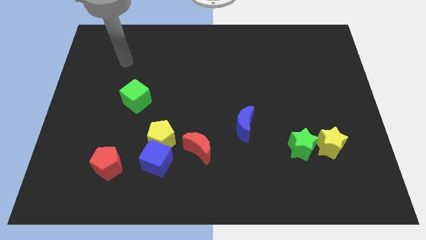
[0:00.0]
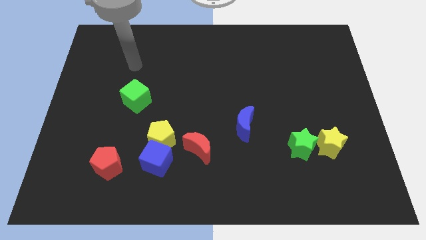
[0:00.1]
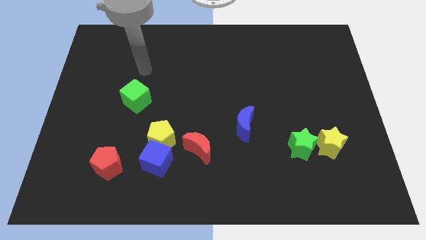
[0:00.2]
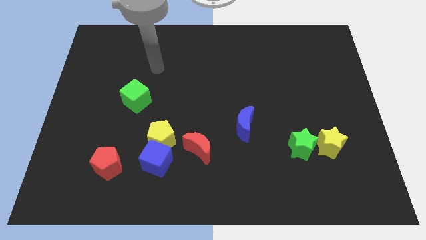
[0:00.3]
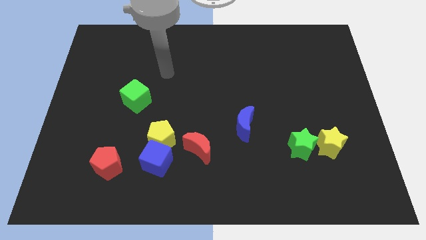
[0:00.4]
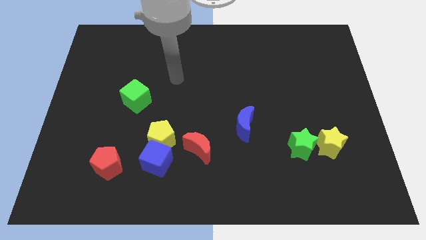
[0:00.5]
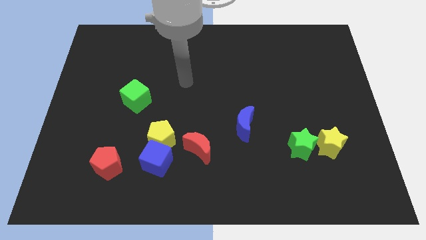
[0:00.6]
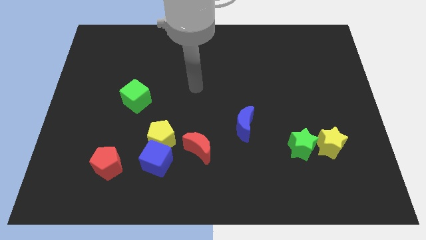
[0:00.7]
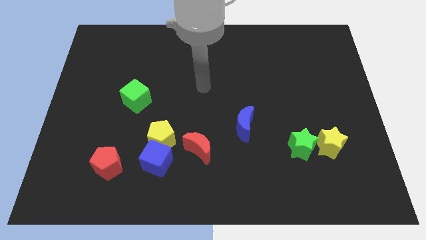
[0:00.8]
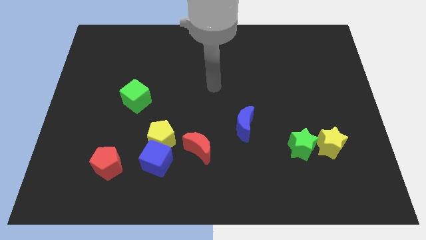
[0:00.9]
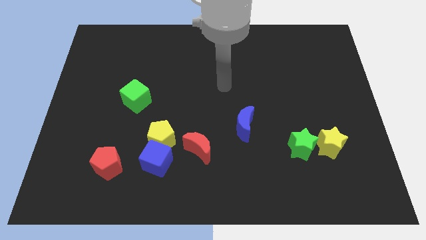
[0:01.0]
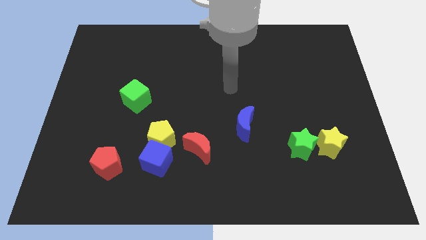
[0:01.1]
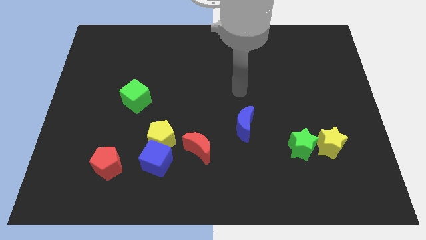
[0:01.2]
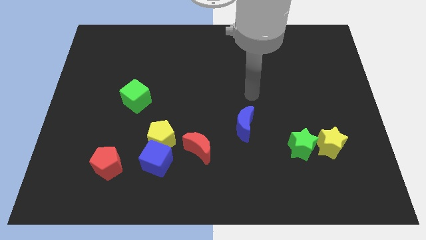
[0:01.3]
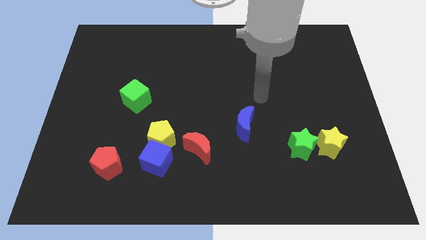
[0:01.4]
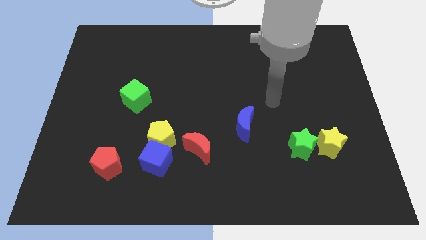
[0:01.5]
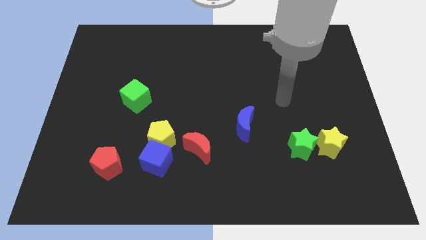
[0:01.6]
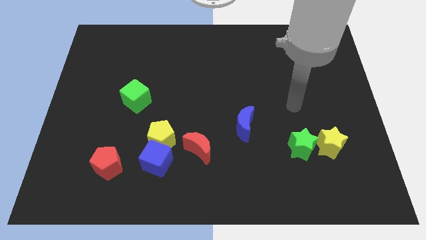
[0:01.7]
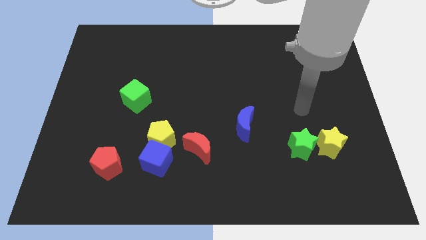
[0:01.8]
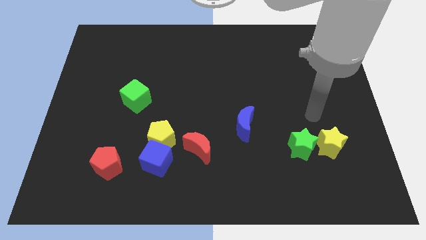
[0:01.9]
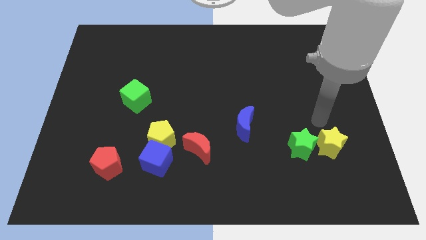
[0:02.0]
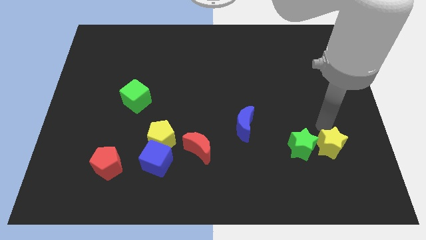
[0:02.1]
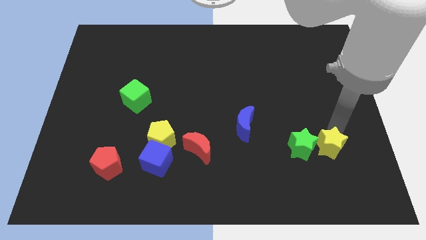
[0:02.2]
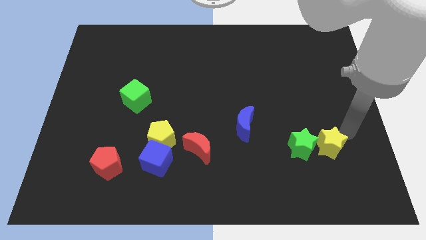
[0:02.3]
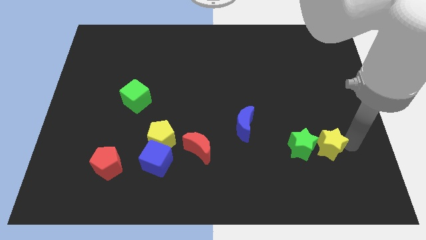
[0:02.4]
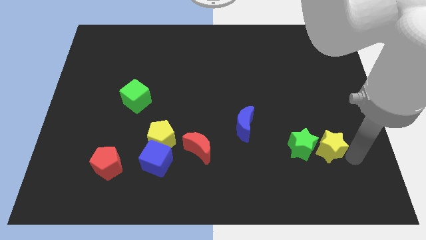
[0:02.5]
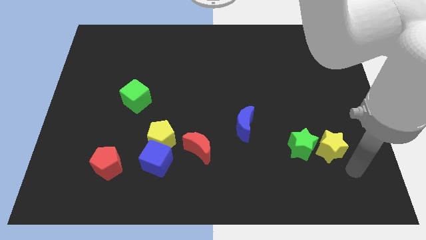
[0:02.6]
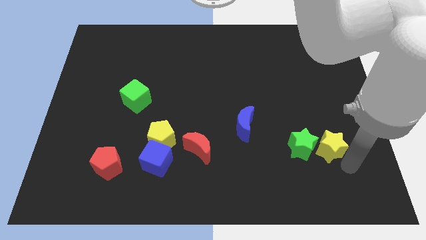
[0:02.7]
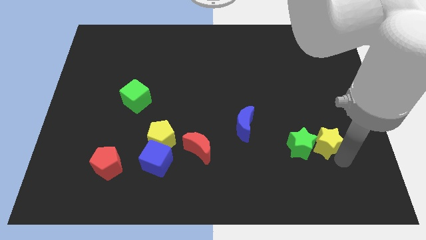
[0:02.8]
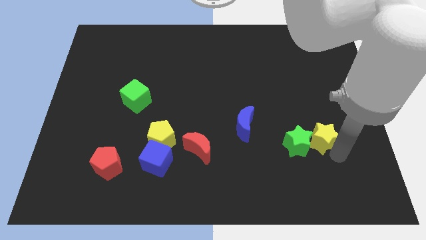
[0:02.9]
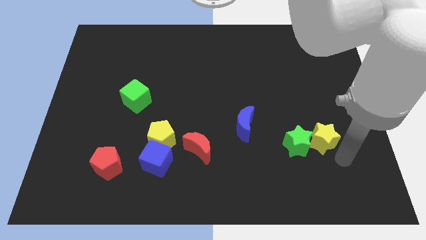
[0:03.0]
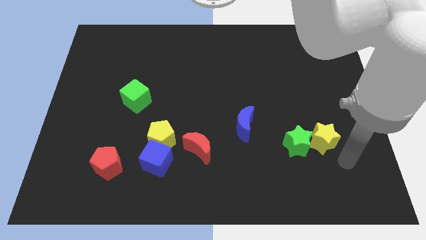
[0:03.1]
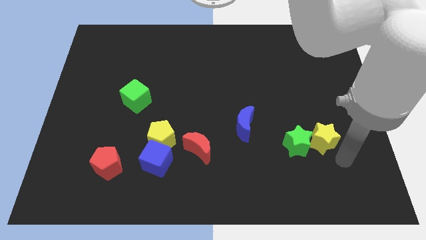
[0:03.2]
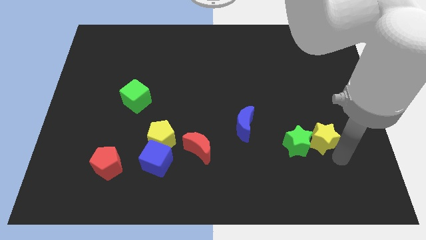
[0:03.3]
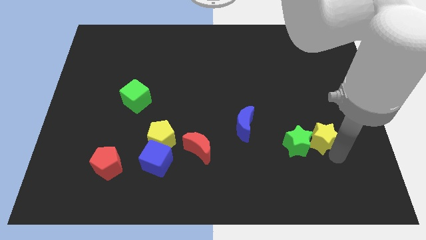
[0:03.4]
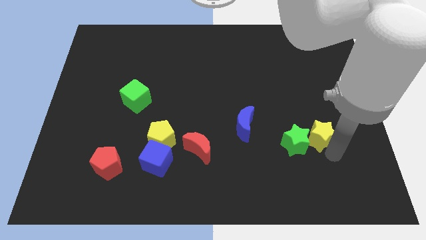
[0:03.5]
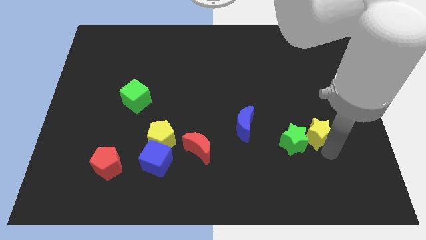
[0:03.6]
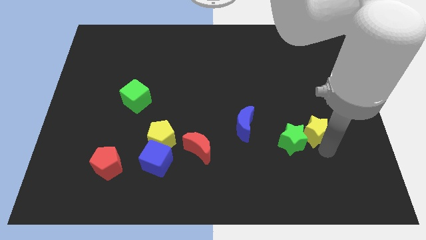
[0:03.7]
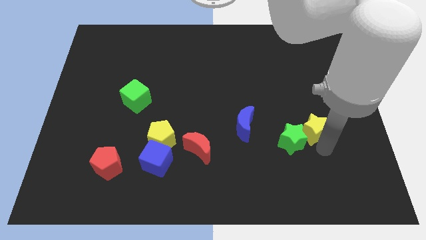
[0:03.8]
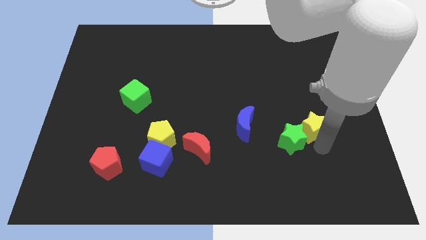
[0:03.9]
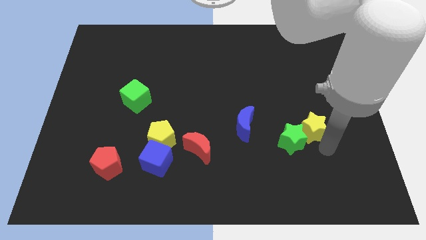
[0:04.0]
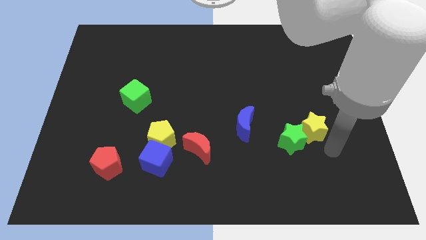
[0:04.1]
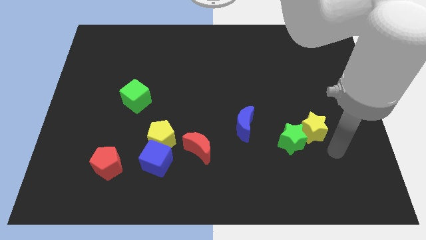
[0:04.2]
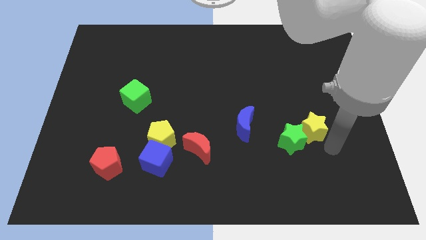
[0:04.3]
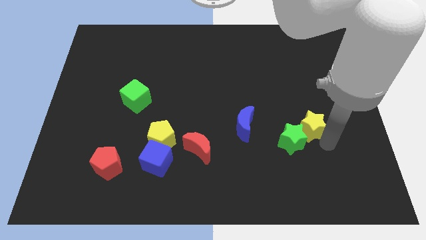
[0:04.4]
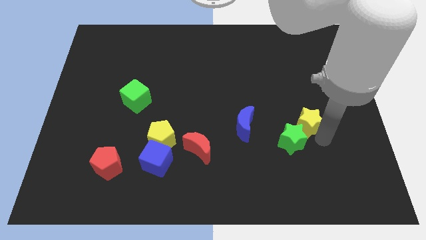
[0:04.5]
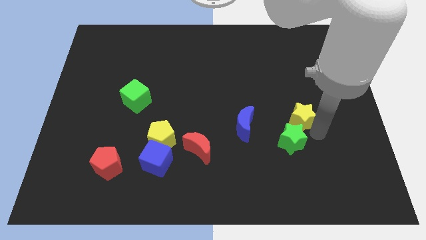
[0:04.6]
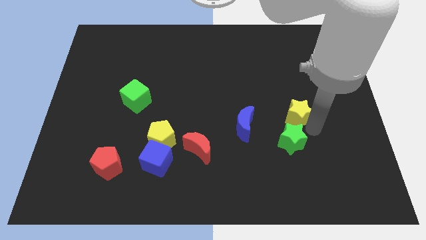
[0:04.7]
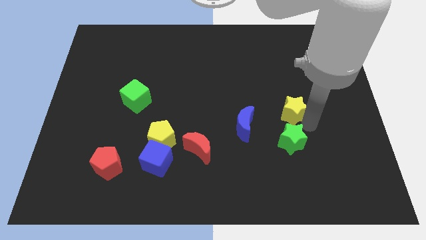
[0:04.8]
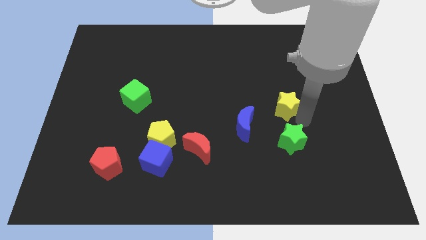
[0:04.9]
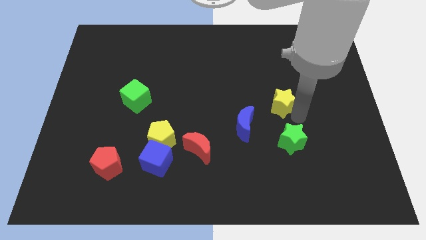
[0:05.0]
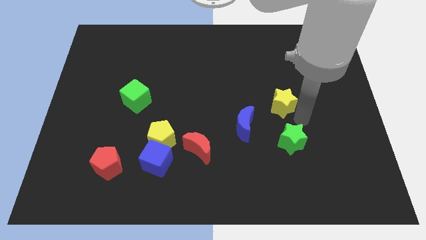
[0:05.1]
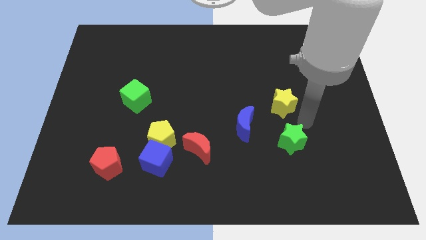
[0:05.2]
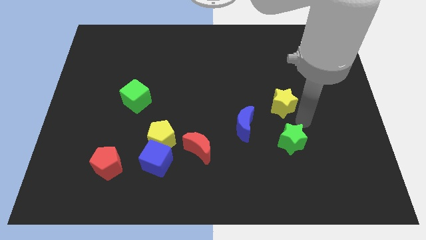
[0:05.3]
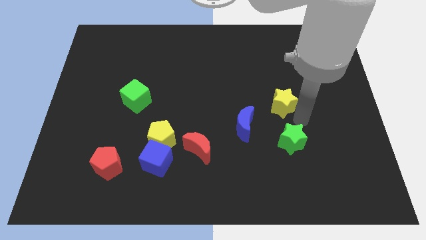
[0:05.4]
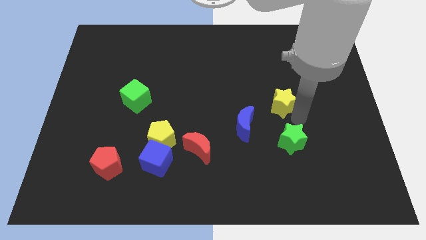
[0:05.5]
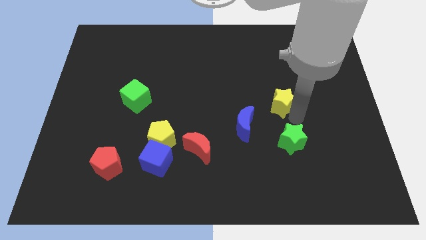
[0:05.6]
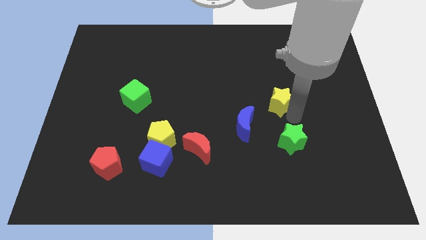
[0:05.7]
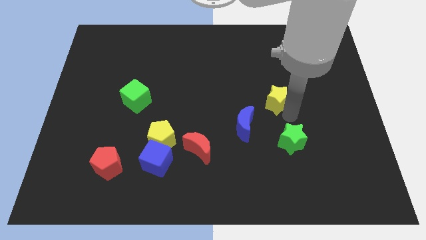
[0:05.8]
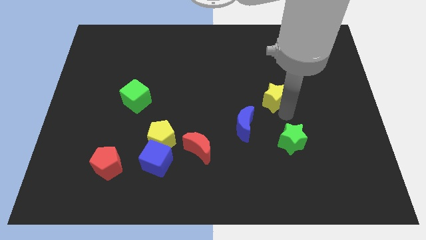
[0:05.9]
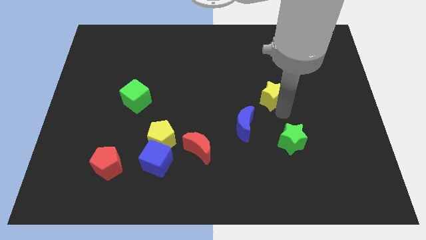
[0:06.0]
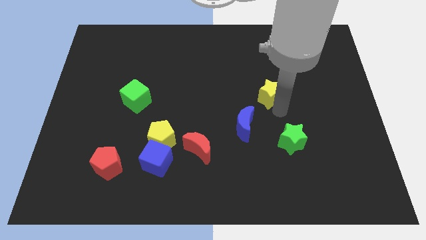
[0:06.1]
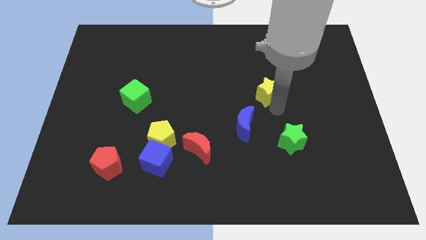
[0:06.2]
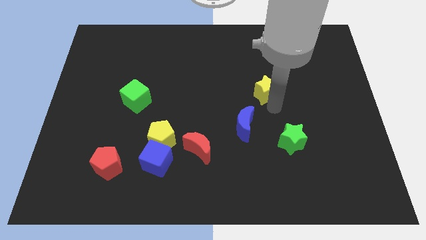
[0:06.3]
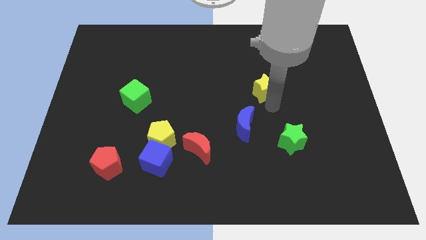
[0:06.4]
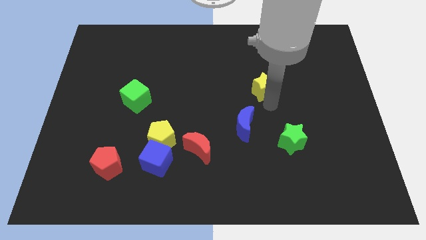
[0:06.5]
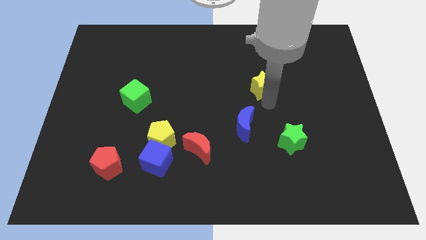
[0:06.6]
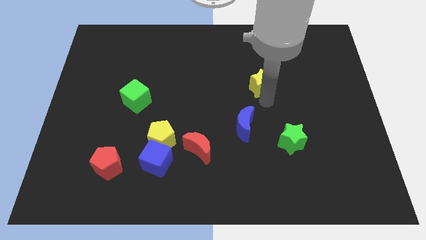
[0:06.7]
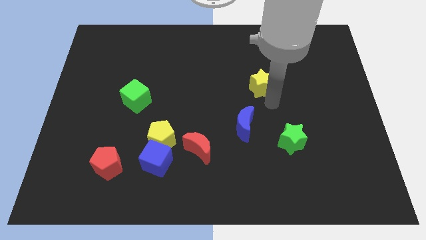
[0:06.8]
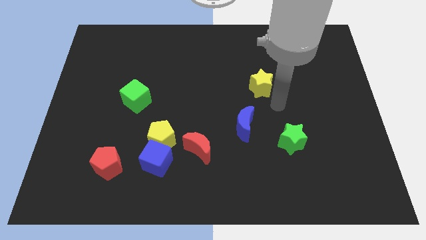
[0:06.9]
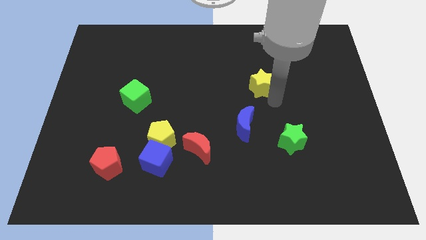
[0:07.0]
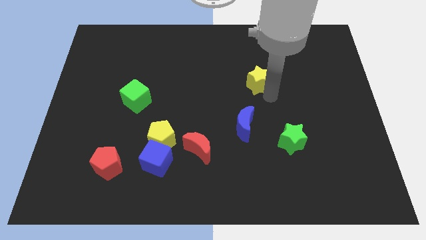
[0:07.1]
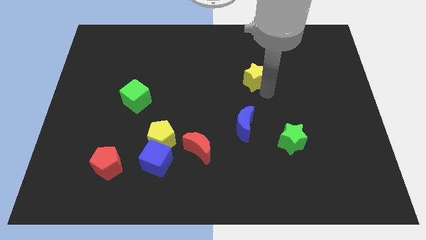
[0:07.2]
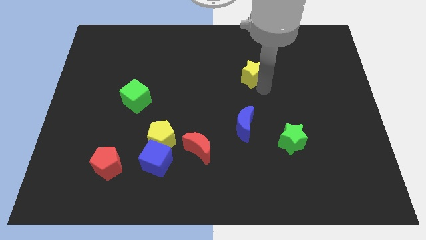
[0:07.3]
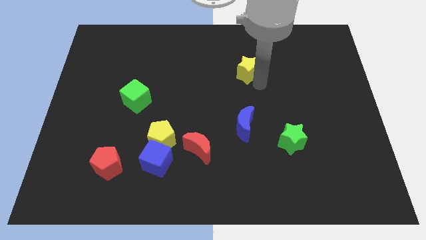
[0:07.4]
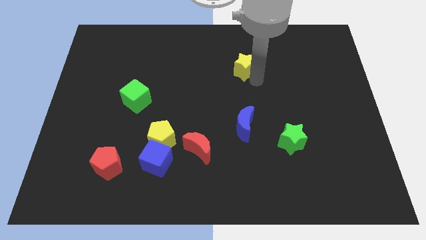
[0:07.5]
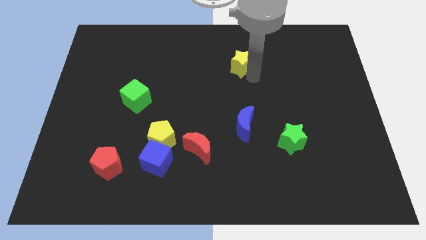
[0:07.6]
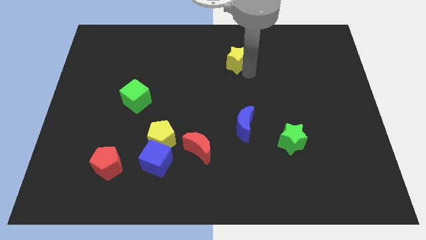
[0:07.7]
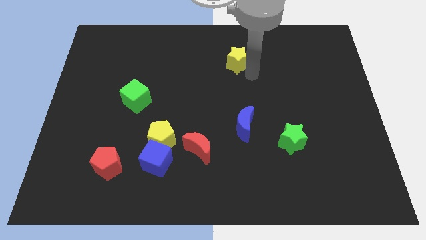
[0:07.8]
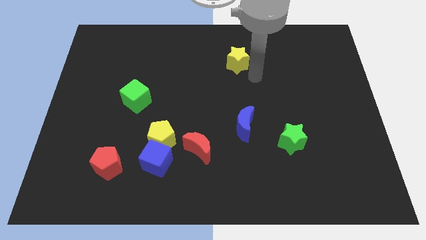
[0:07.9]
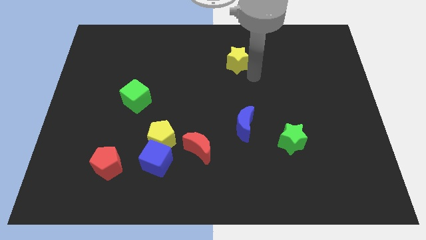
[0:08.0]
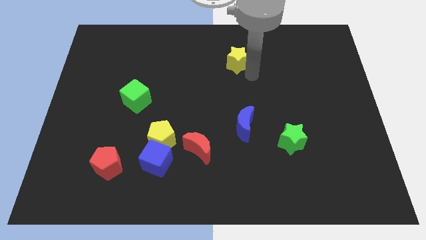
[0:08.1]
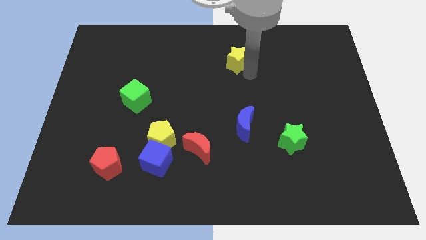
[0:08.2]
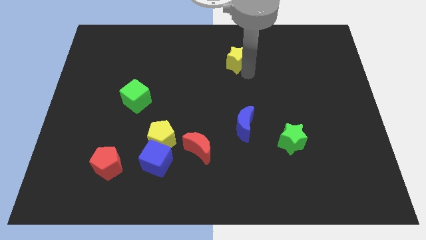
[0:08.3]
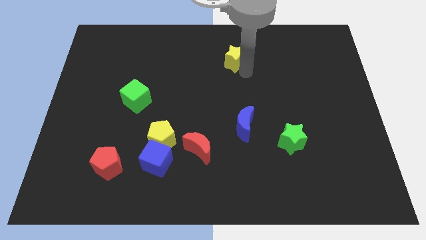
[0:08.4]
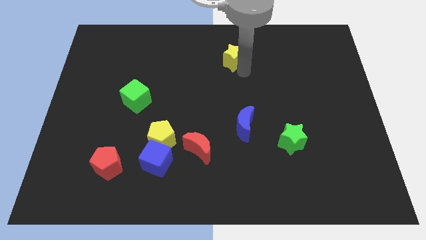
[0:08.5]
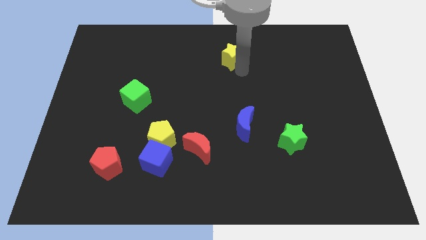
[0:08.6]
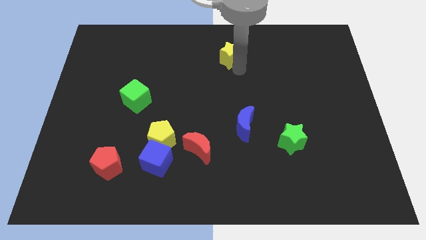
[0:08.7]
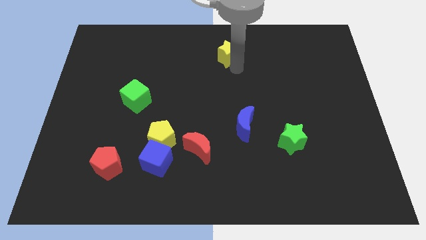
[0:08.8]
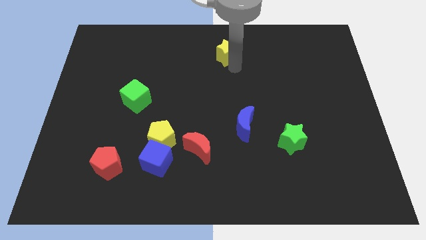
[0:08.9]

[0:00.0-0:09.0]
move the yellow star to the towards your base
